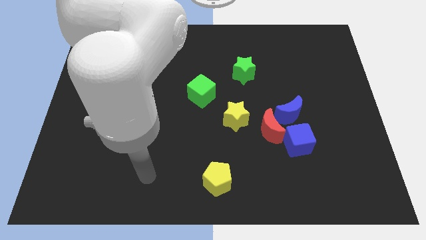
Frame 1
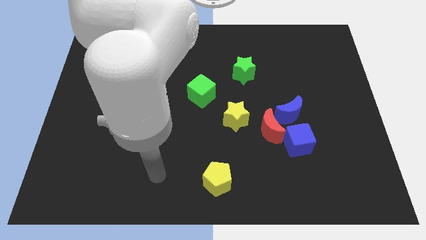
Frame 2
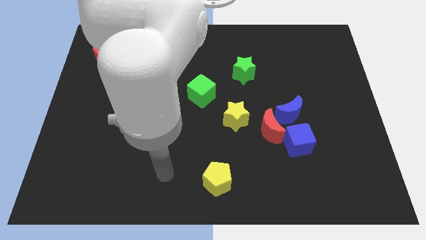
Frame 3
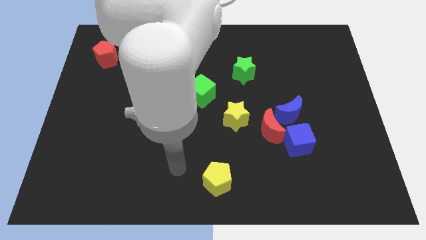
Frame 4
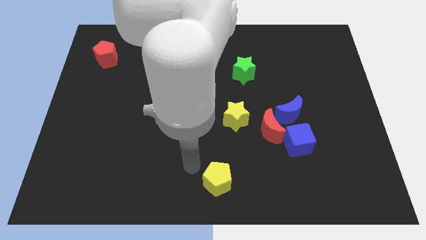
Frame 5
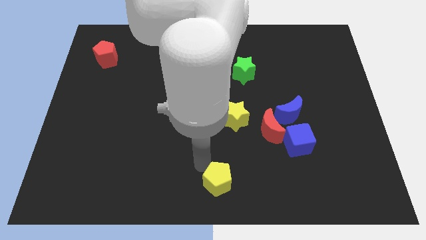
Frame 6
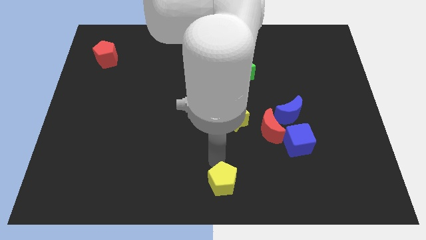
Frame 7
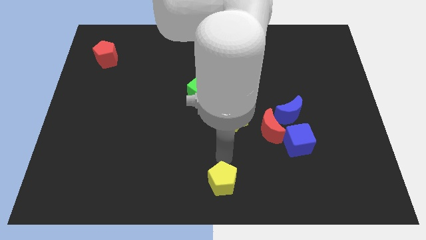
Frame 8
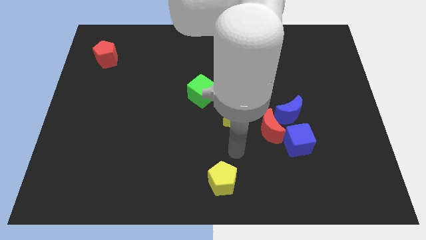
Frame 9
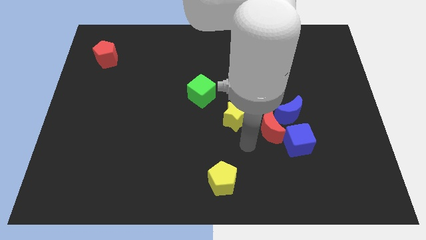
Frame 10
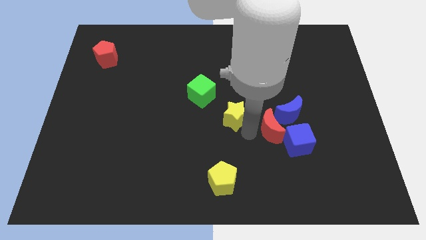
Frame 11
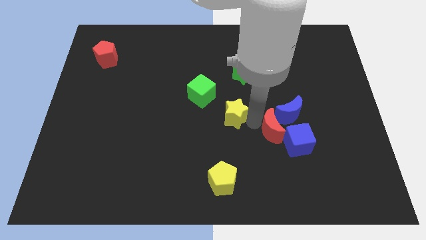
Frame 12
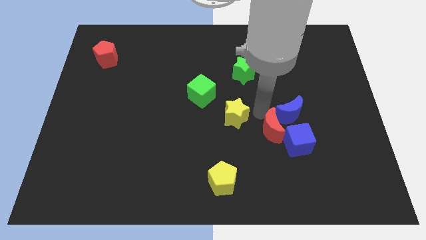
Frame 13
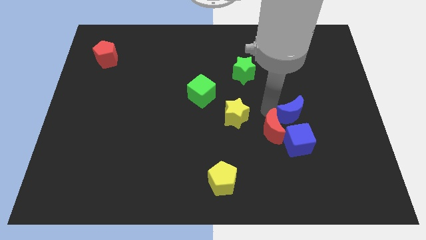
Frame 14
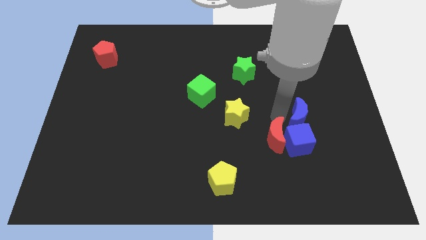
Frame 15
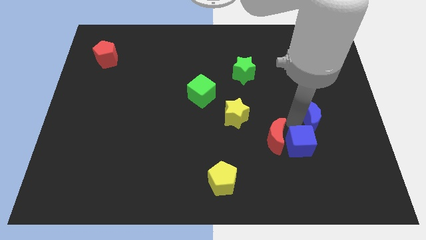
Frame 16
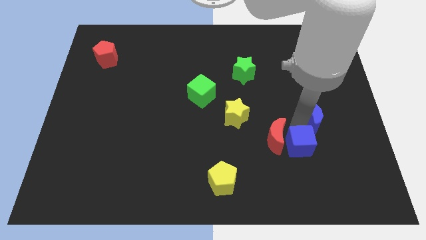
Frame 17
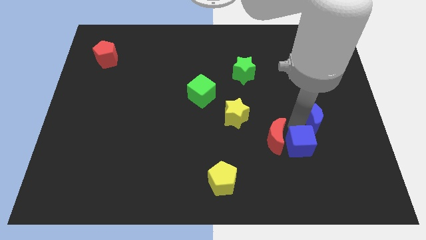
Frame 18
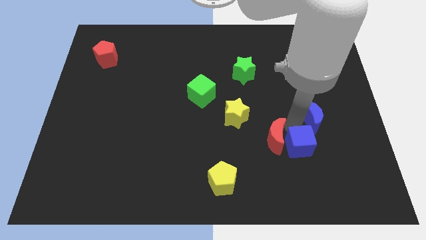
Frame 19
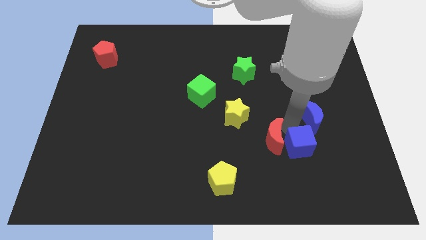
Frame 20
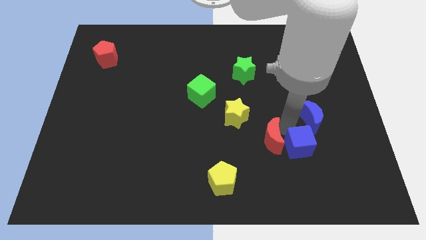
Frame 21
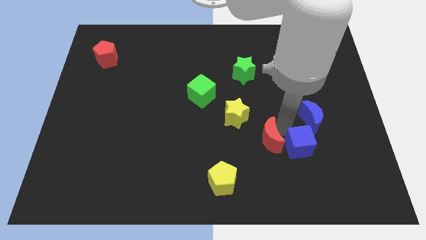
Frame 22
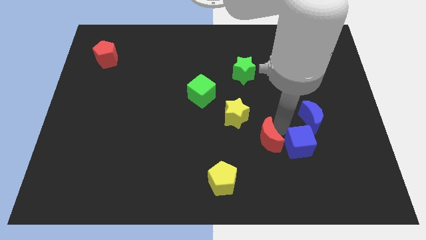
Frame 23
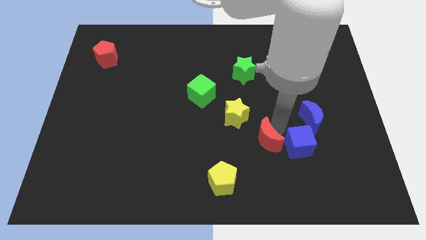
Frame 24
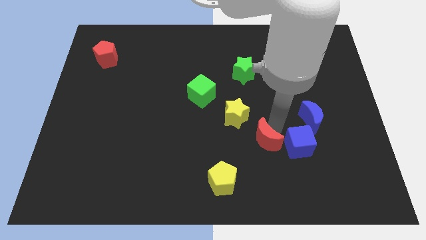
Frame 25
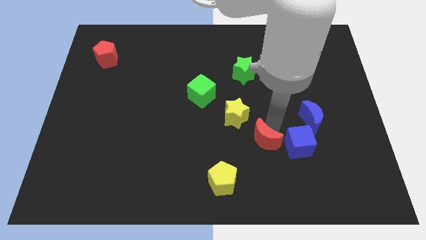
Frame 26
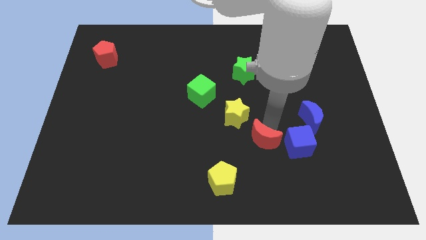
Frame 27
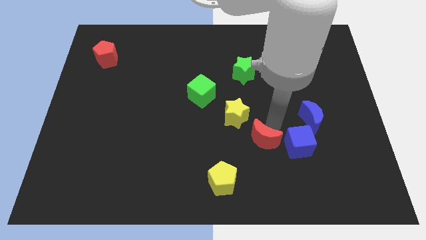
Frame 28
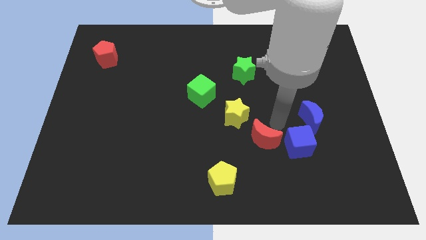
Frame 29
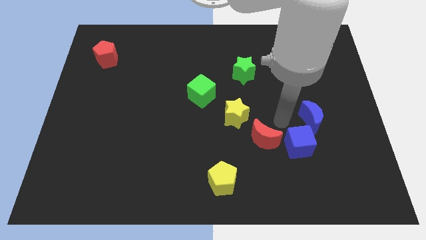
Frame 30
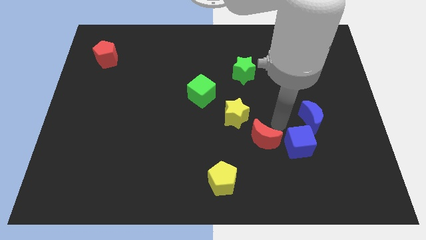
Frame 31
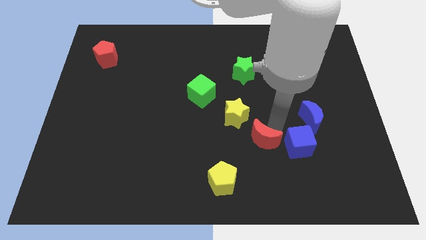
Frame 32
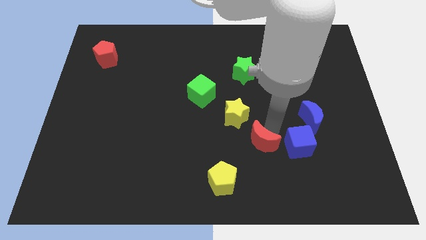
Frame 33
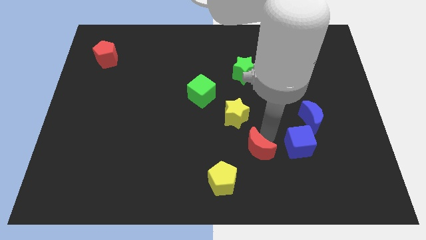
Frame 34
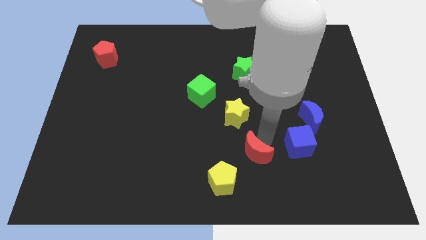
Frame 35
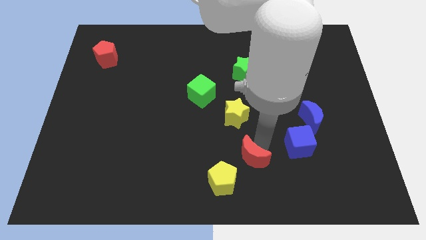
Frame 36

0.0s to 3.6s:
separate the red moon from the clump

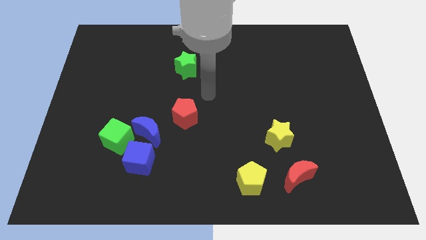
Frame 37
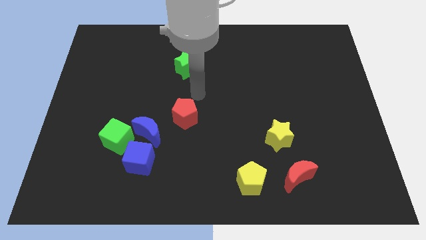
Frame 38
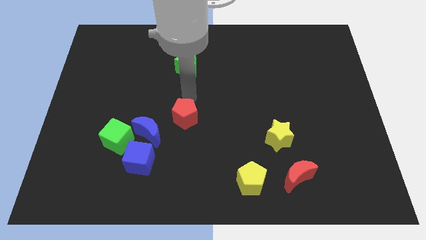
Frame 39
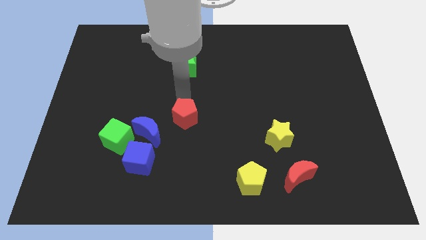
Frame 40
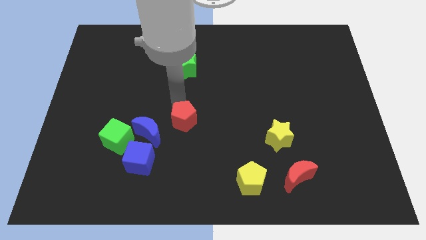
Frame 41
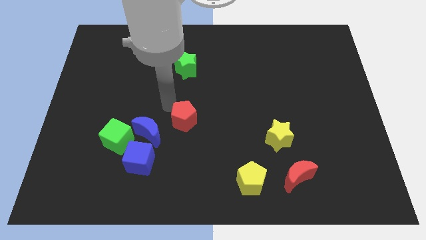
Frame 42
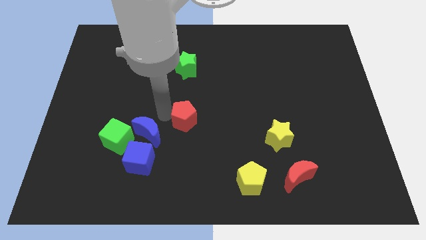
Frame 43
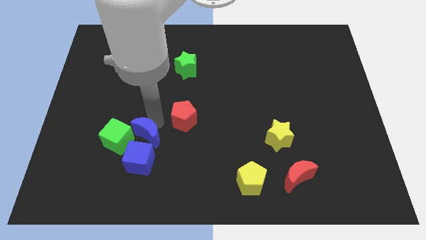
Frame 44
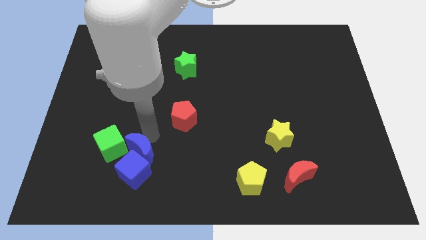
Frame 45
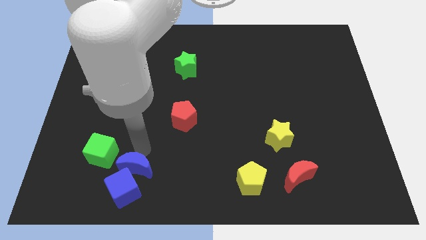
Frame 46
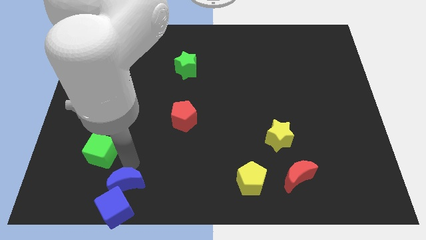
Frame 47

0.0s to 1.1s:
pull the green cube apart from the blue moon and blue cube

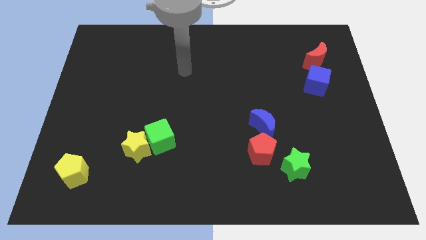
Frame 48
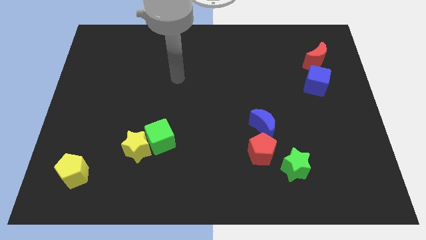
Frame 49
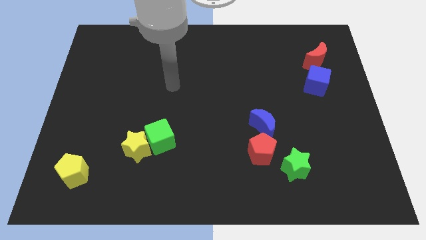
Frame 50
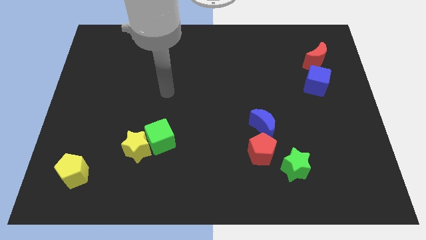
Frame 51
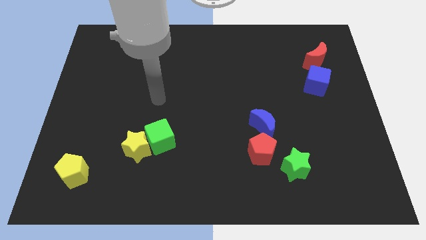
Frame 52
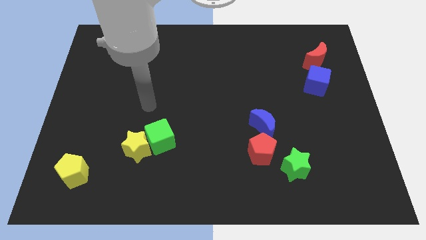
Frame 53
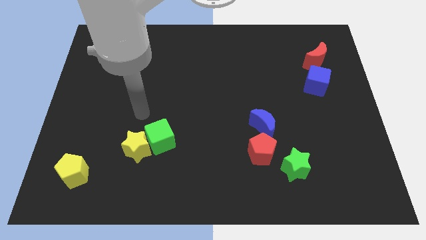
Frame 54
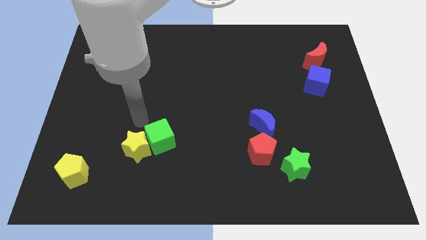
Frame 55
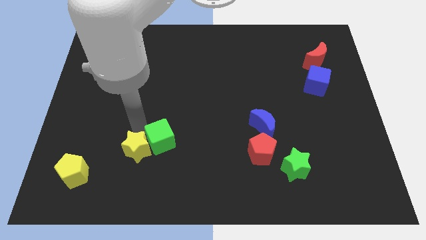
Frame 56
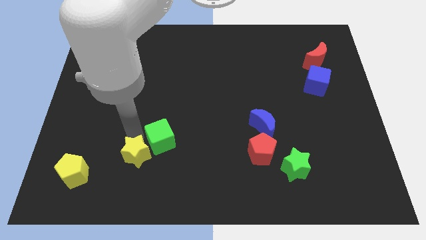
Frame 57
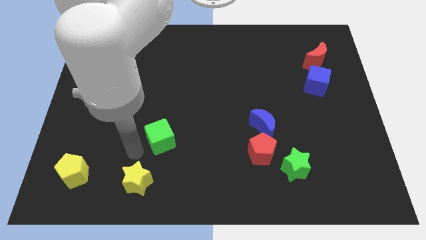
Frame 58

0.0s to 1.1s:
separate the green cube from the yellow star

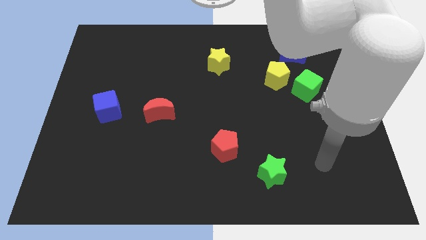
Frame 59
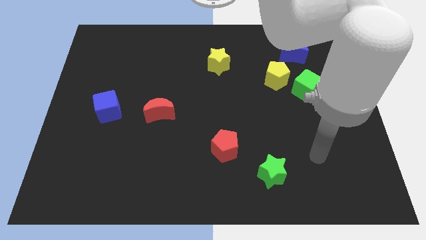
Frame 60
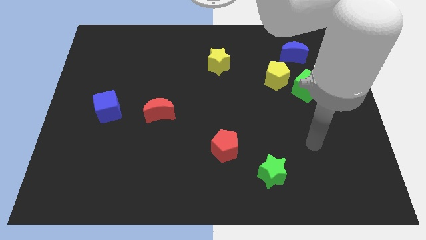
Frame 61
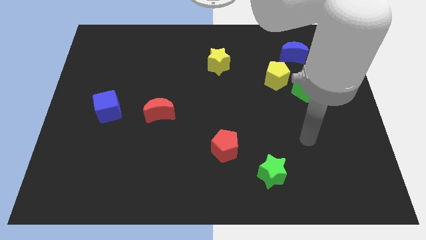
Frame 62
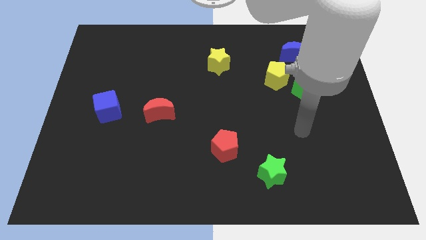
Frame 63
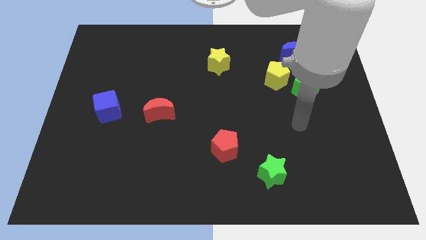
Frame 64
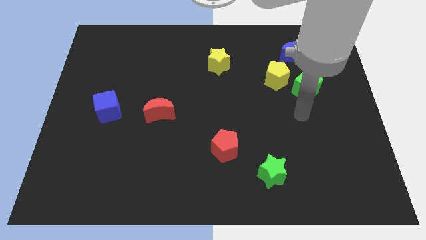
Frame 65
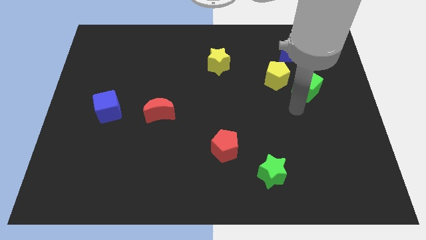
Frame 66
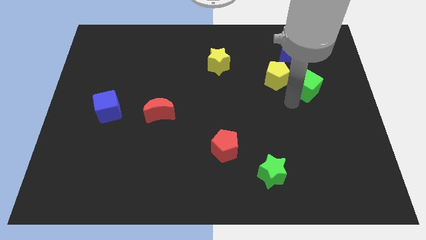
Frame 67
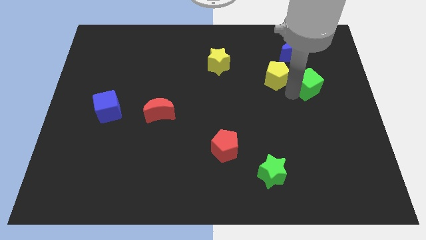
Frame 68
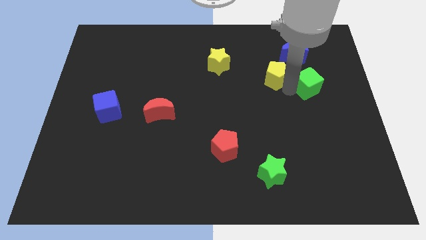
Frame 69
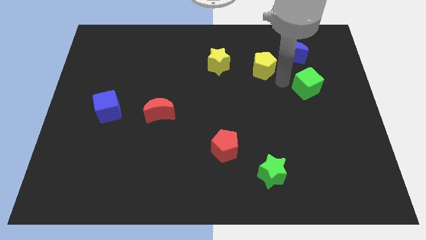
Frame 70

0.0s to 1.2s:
pull the green cube apart from the yellow pentagon

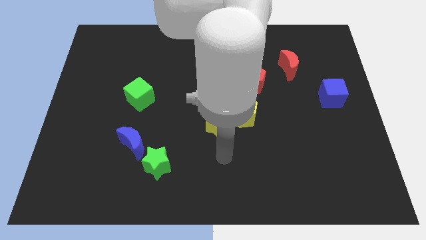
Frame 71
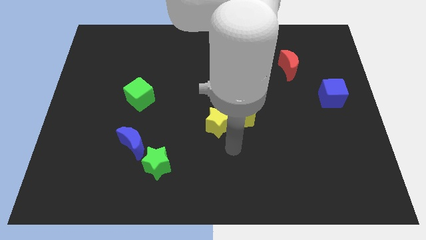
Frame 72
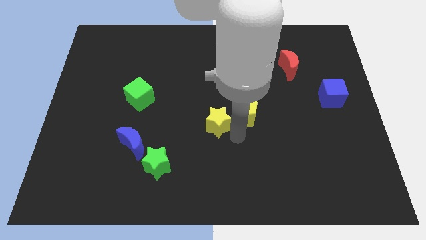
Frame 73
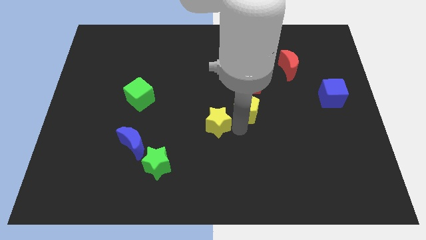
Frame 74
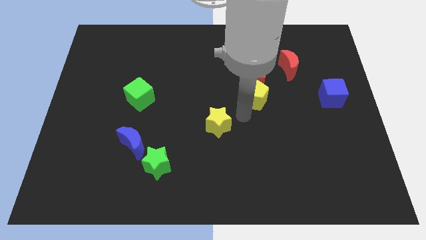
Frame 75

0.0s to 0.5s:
move the yellow star away from the yellow pentagon

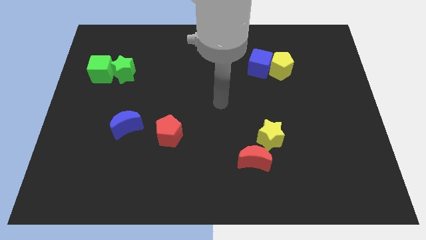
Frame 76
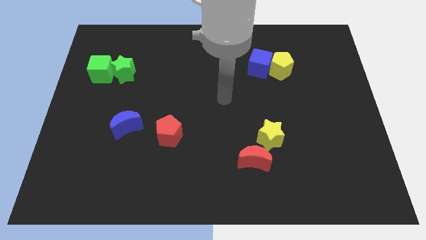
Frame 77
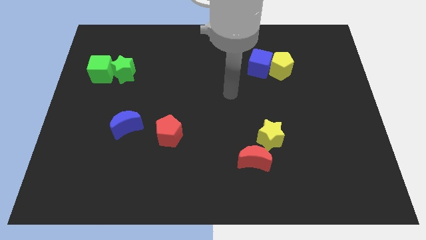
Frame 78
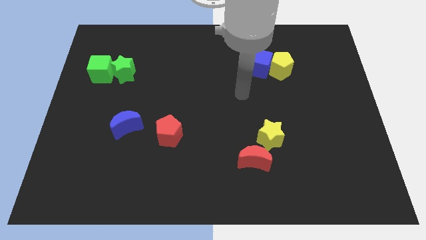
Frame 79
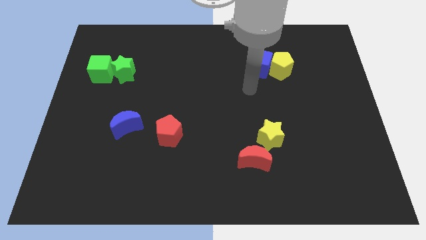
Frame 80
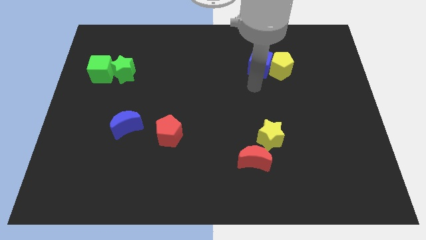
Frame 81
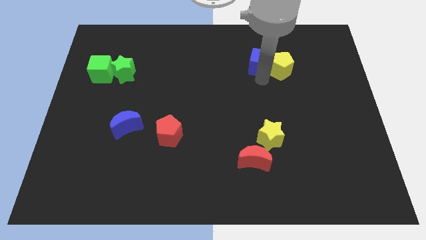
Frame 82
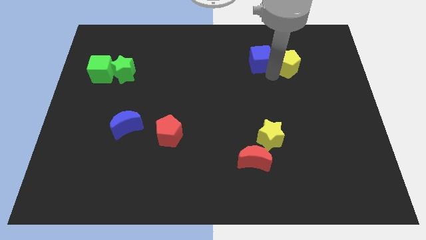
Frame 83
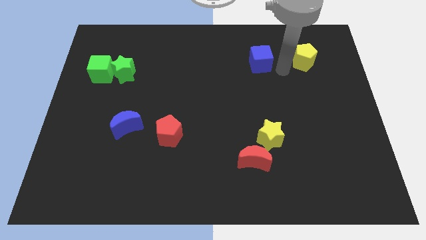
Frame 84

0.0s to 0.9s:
pull the blue cube apart from the yellow pentagon

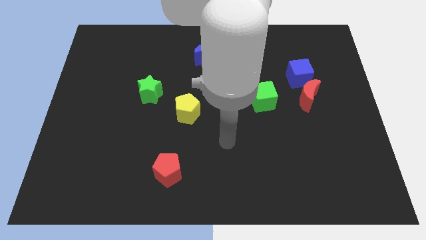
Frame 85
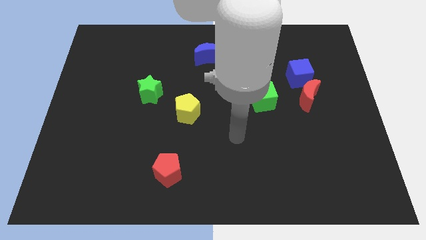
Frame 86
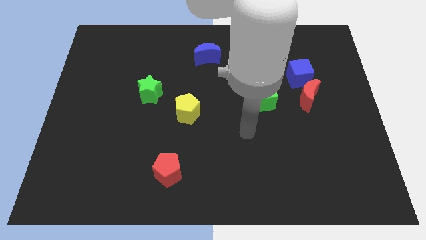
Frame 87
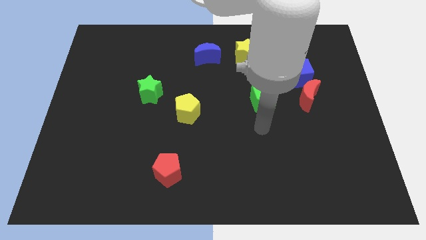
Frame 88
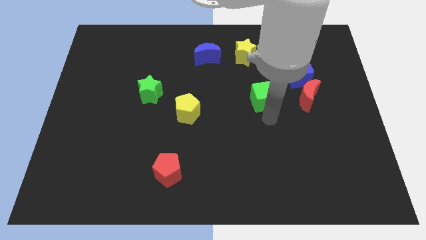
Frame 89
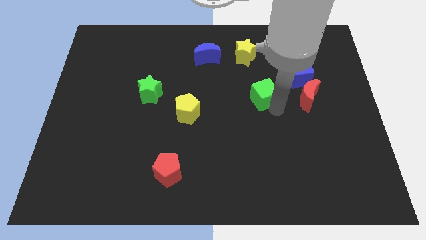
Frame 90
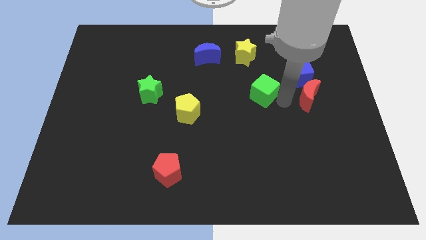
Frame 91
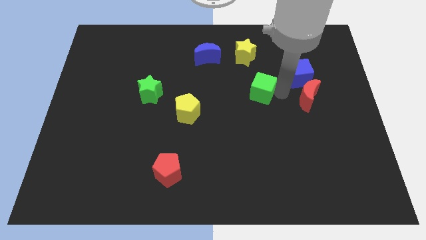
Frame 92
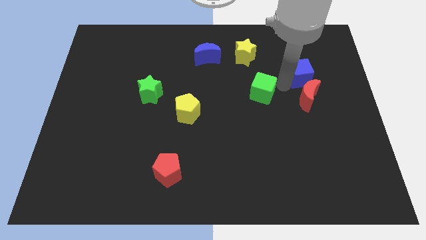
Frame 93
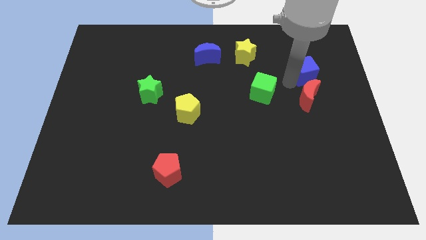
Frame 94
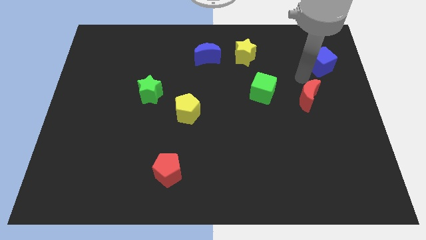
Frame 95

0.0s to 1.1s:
move the red moon away from the blue cube
